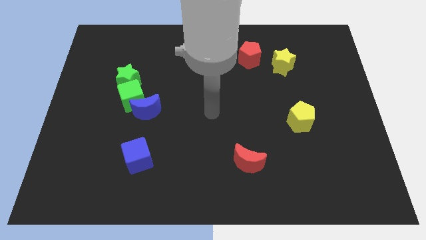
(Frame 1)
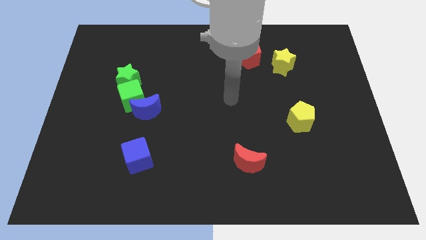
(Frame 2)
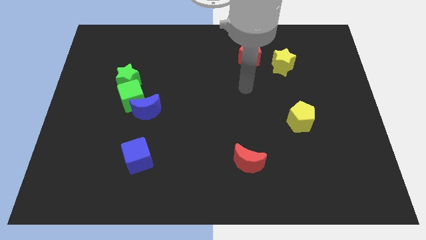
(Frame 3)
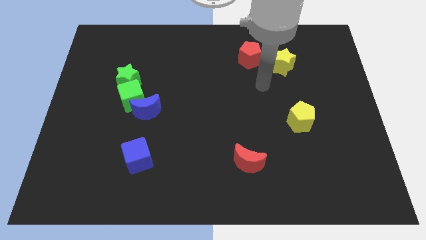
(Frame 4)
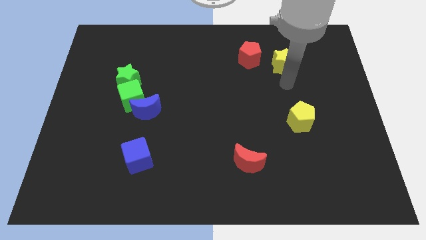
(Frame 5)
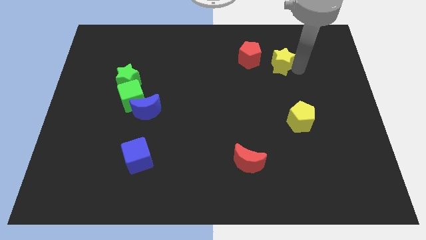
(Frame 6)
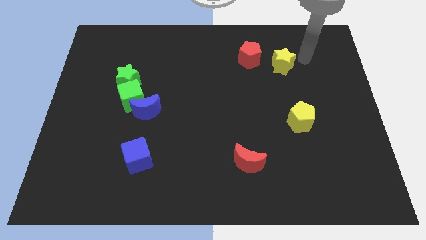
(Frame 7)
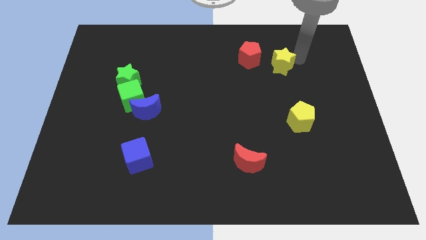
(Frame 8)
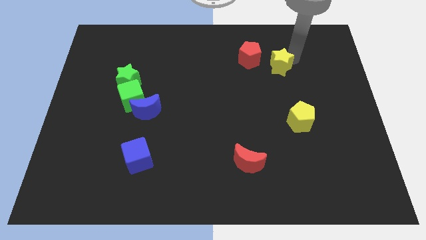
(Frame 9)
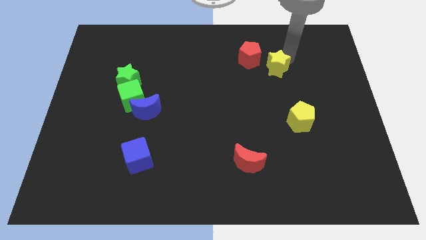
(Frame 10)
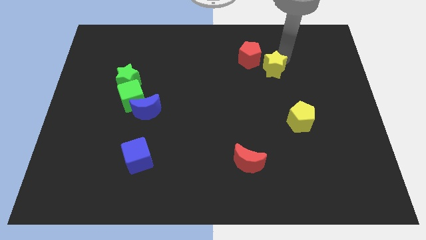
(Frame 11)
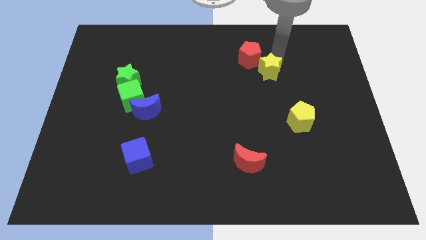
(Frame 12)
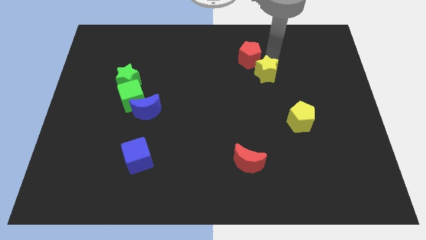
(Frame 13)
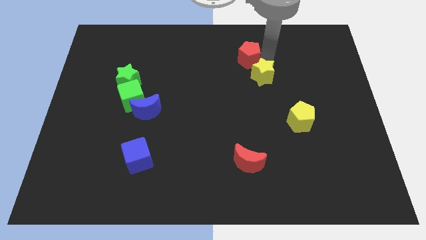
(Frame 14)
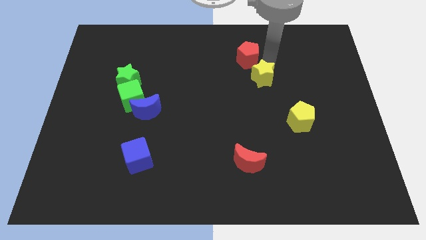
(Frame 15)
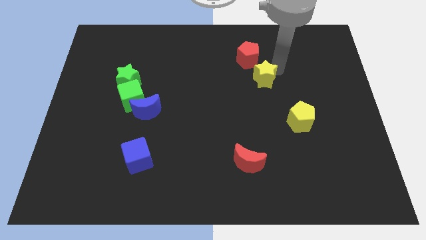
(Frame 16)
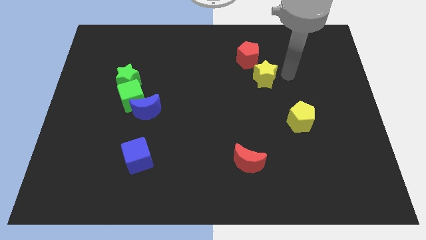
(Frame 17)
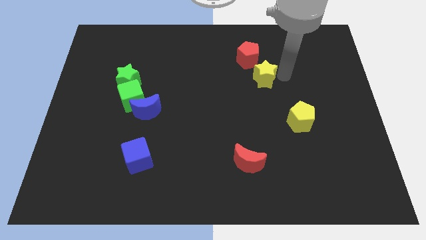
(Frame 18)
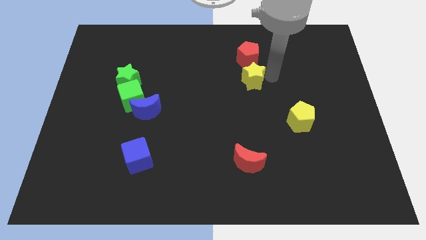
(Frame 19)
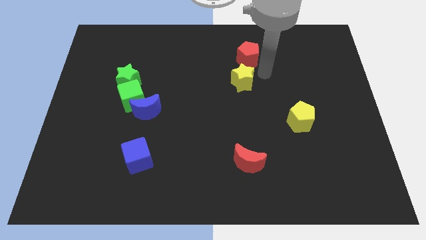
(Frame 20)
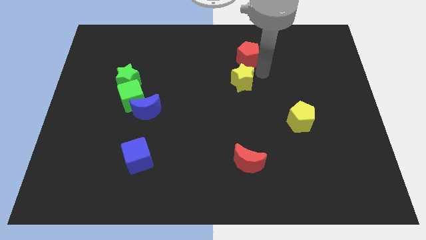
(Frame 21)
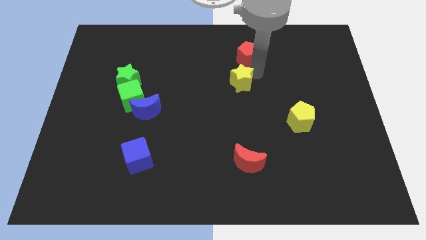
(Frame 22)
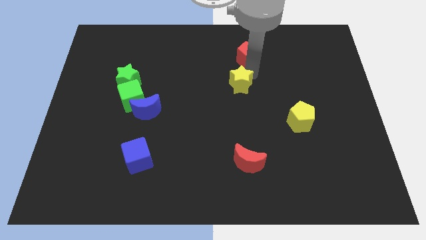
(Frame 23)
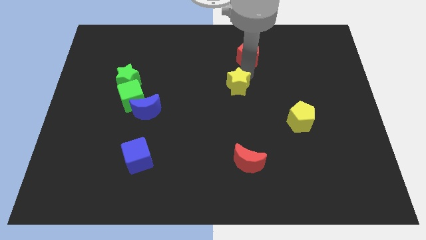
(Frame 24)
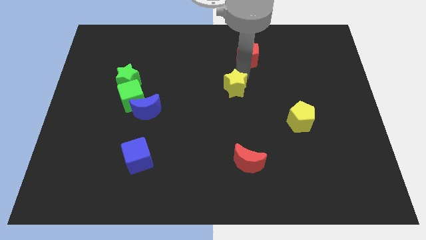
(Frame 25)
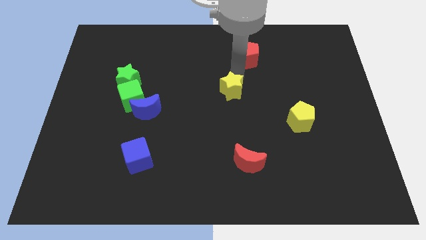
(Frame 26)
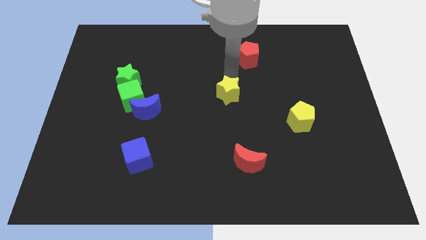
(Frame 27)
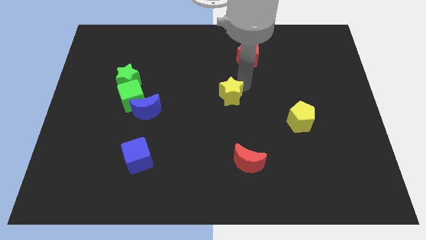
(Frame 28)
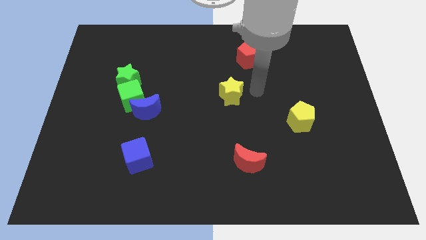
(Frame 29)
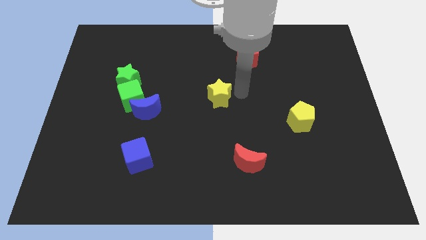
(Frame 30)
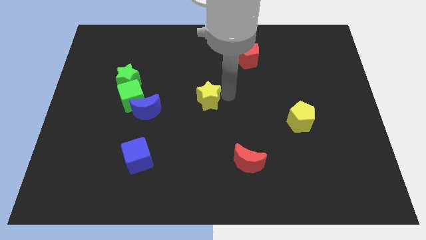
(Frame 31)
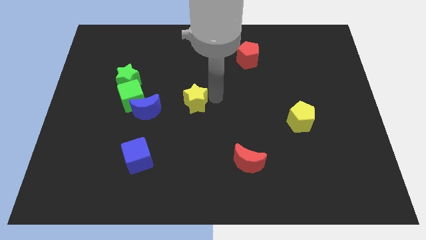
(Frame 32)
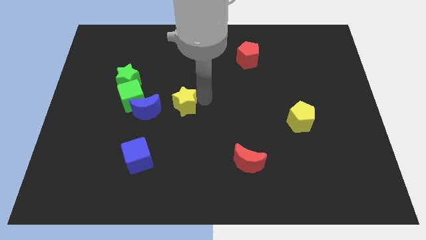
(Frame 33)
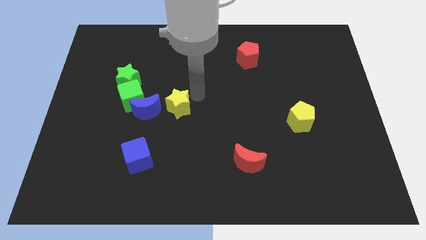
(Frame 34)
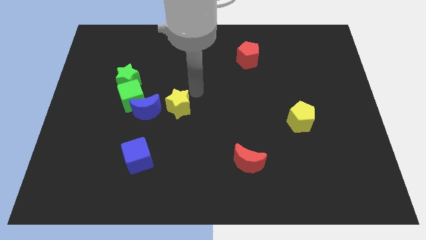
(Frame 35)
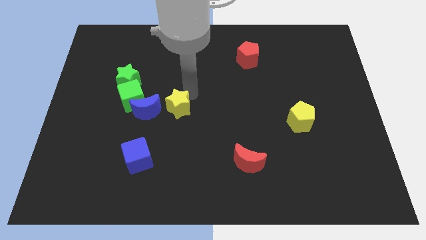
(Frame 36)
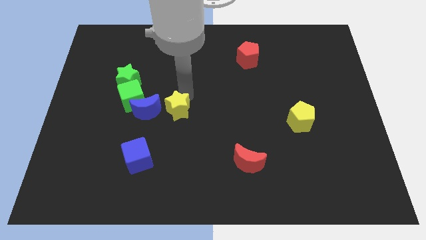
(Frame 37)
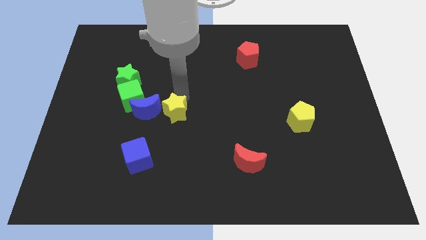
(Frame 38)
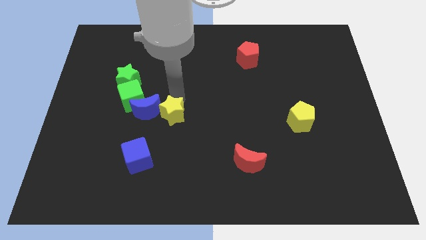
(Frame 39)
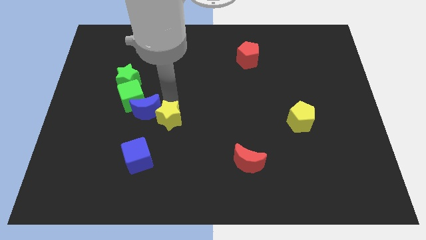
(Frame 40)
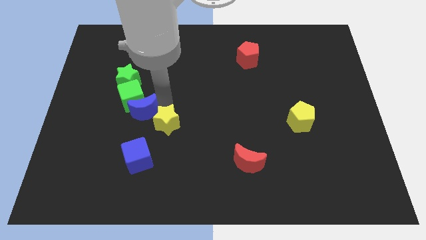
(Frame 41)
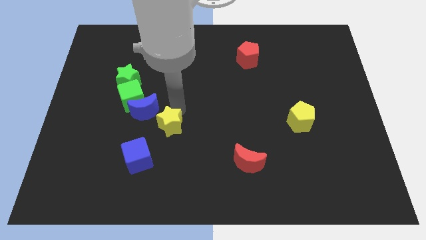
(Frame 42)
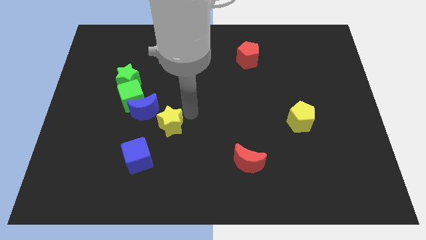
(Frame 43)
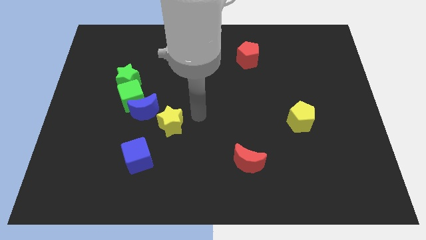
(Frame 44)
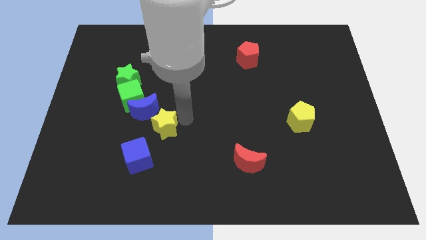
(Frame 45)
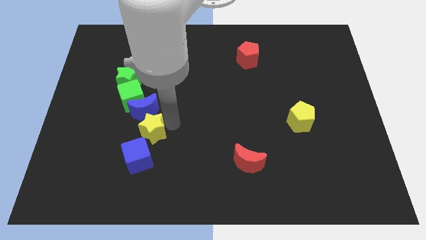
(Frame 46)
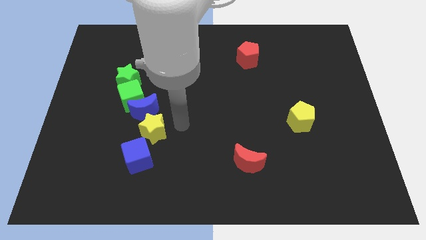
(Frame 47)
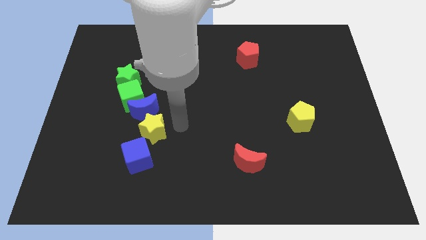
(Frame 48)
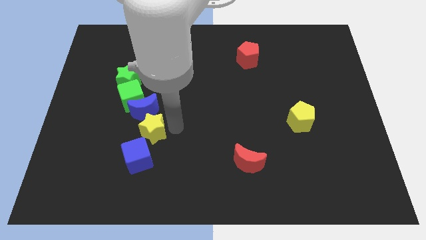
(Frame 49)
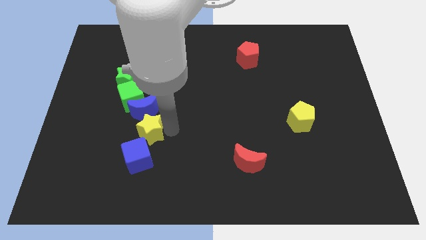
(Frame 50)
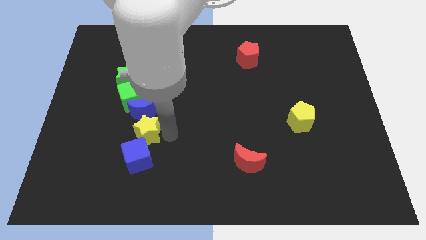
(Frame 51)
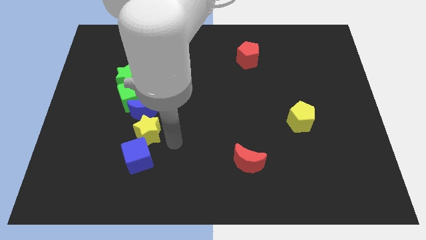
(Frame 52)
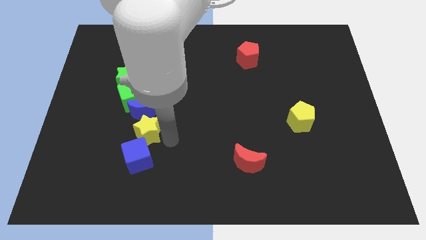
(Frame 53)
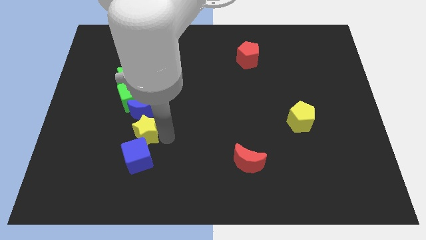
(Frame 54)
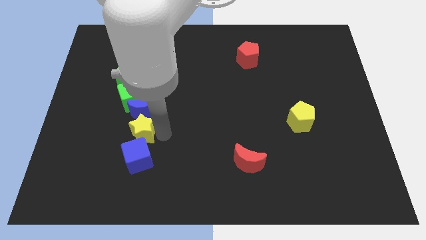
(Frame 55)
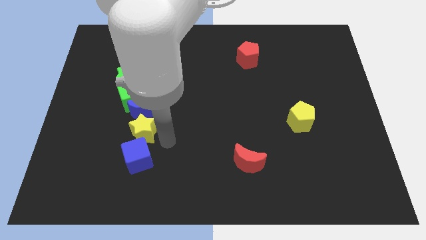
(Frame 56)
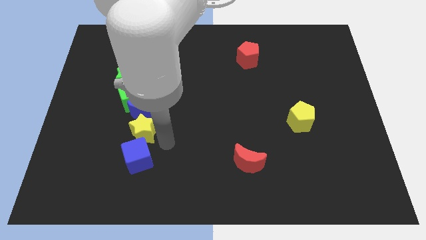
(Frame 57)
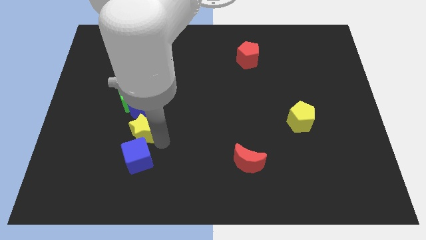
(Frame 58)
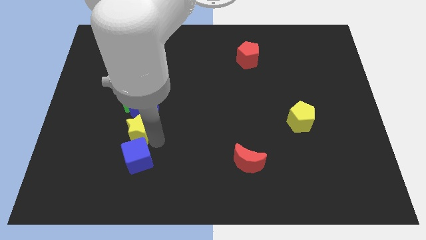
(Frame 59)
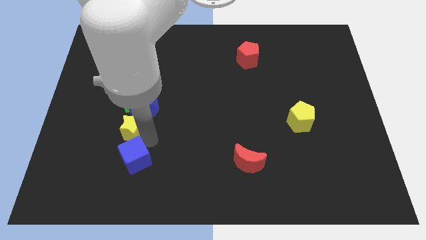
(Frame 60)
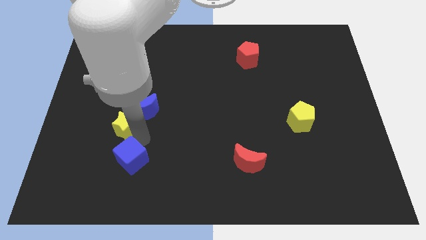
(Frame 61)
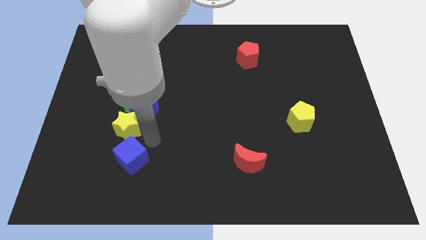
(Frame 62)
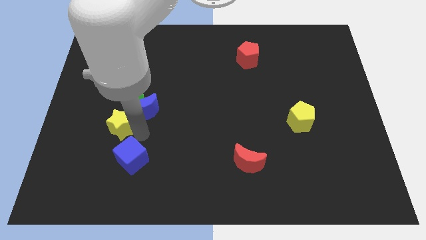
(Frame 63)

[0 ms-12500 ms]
move the yellow star to the bottom left of the green cube

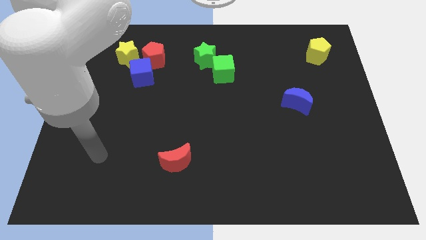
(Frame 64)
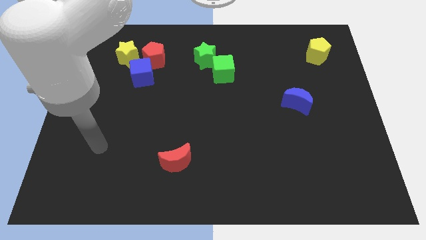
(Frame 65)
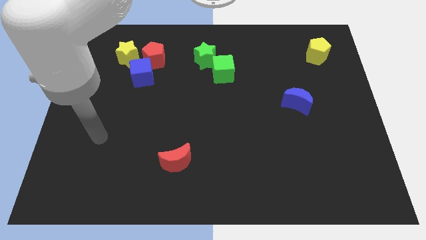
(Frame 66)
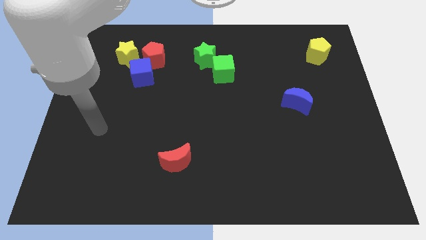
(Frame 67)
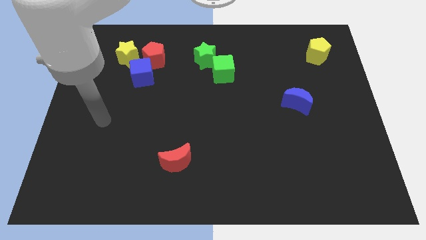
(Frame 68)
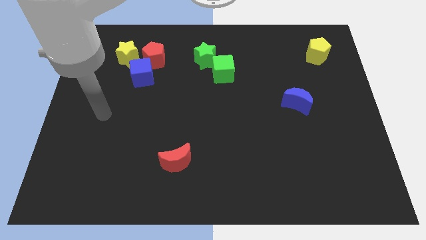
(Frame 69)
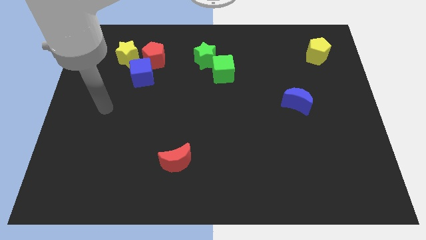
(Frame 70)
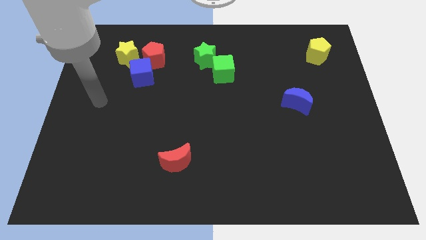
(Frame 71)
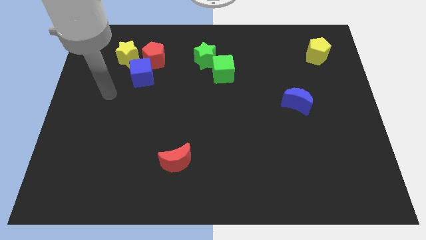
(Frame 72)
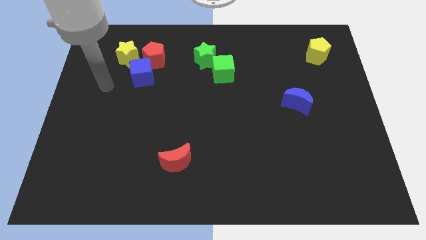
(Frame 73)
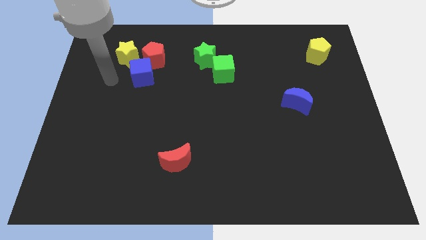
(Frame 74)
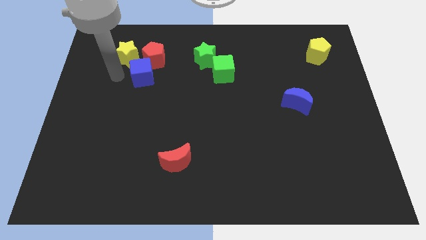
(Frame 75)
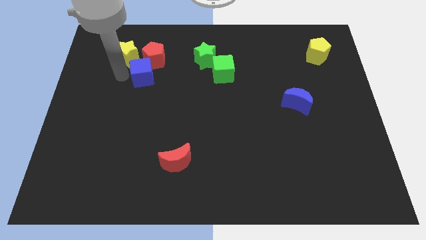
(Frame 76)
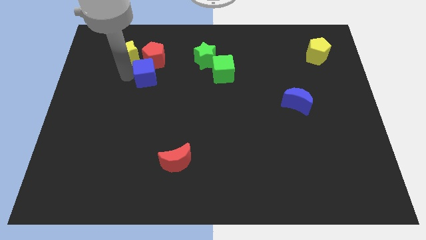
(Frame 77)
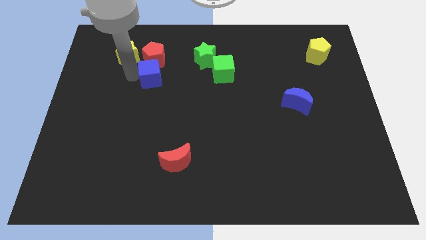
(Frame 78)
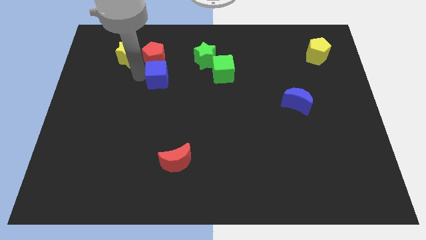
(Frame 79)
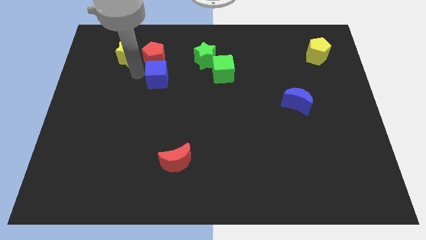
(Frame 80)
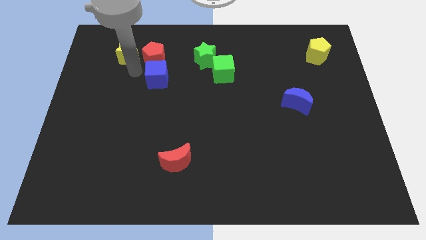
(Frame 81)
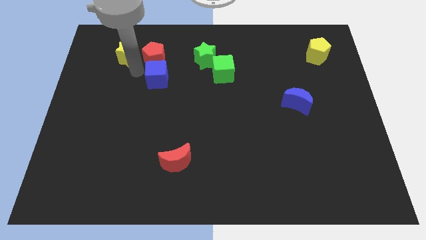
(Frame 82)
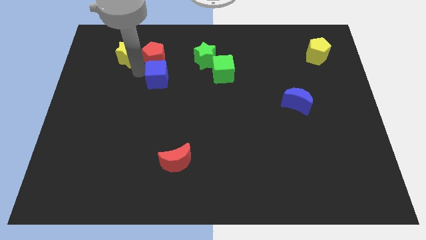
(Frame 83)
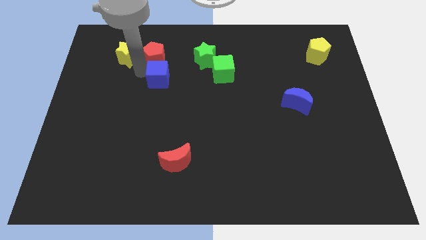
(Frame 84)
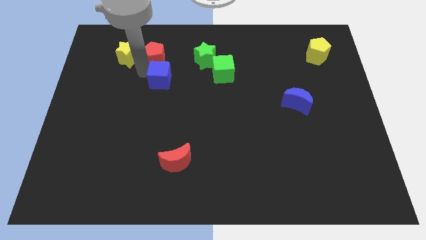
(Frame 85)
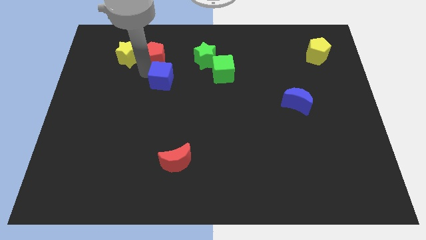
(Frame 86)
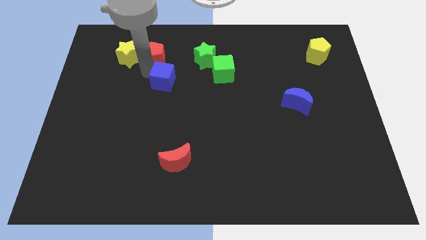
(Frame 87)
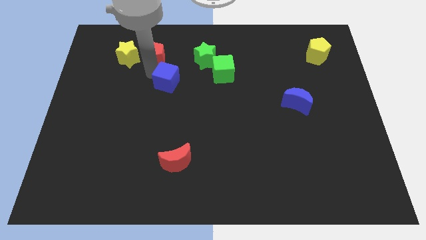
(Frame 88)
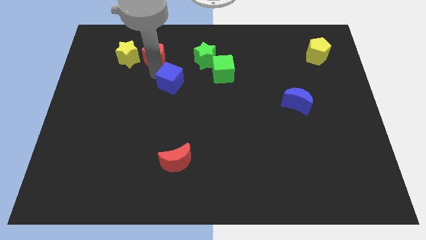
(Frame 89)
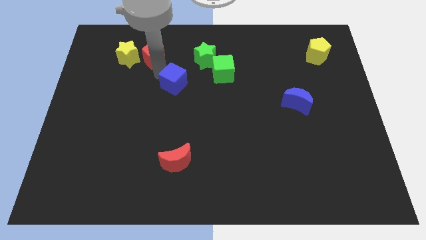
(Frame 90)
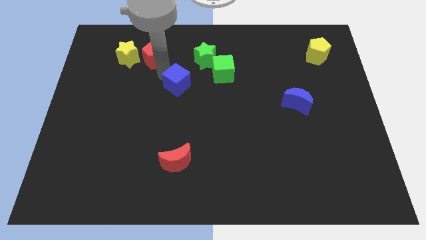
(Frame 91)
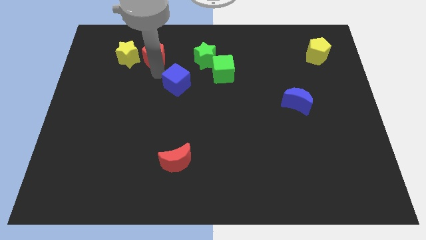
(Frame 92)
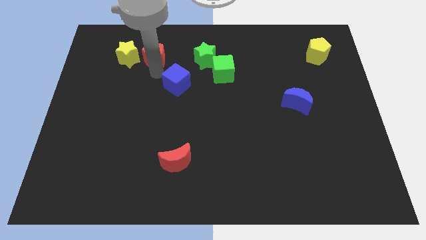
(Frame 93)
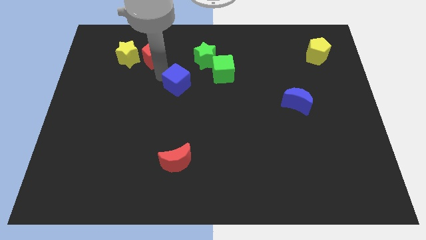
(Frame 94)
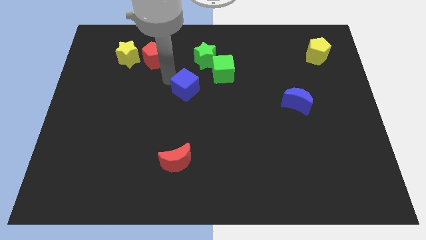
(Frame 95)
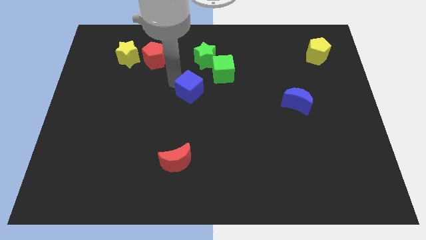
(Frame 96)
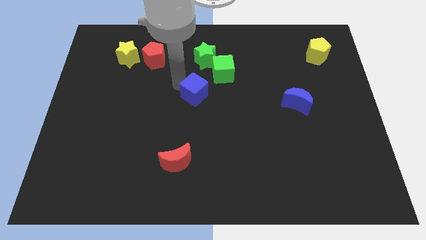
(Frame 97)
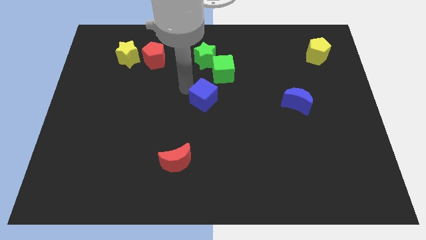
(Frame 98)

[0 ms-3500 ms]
move the blue cube below the green cube
